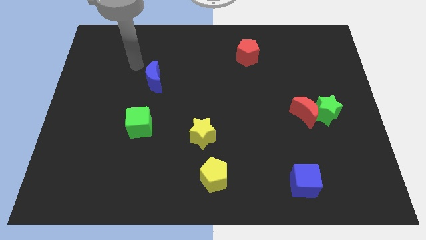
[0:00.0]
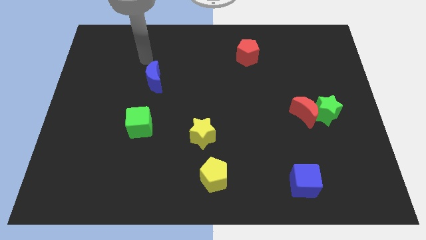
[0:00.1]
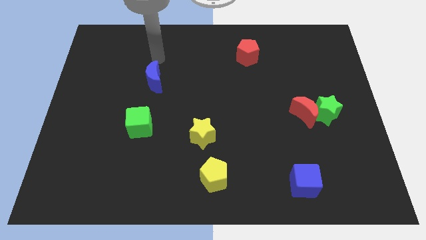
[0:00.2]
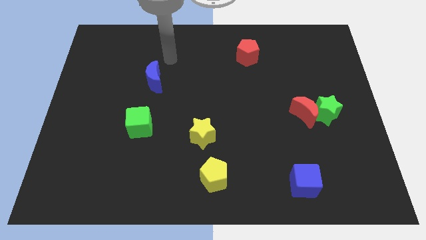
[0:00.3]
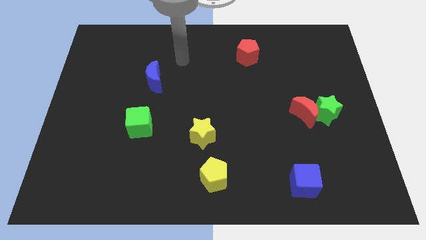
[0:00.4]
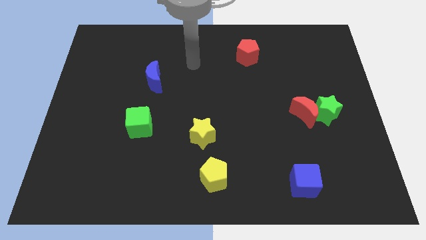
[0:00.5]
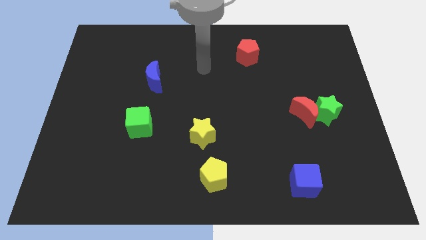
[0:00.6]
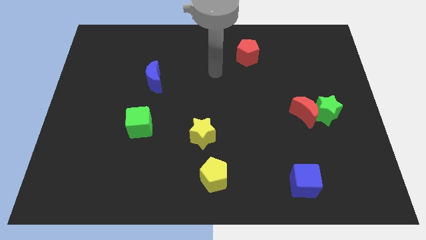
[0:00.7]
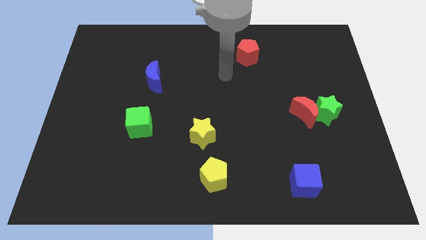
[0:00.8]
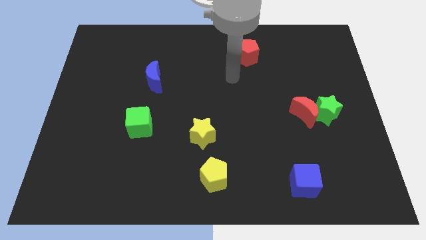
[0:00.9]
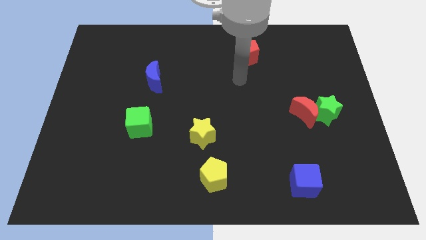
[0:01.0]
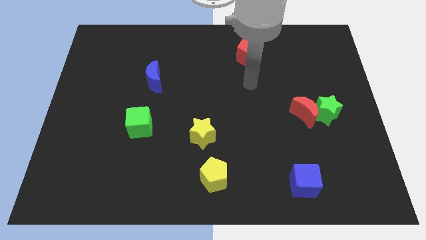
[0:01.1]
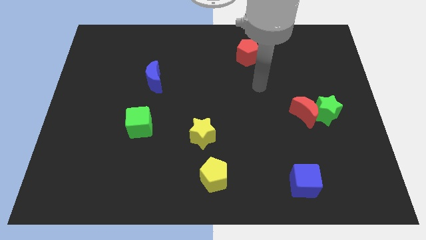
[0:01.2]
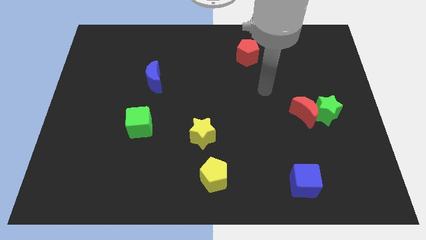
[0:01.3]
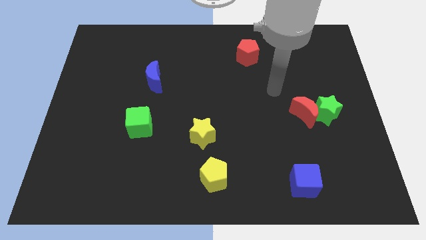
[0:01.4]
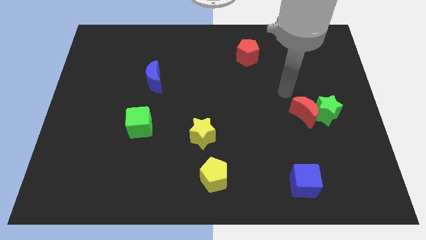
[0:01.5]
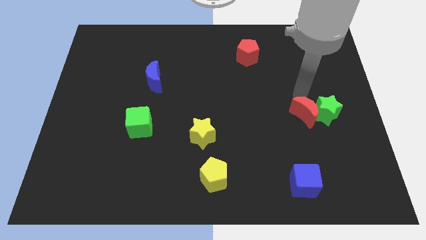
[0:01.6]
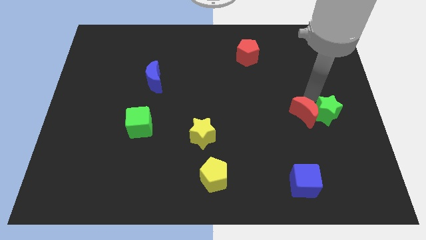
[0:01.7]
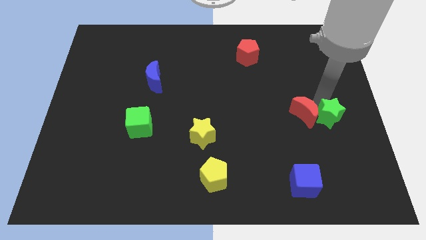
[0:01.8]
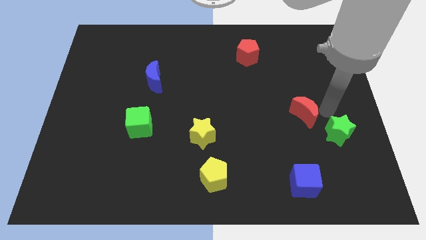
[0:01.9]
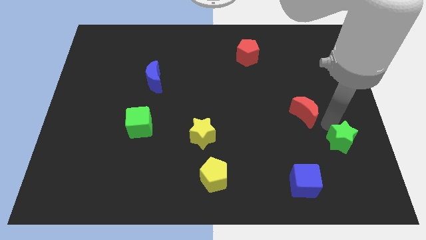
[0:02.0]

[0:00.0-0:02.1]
move the red moon away from the green star

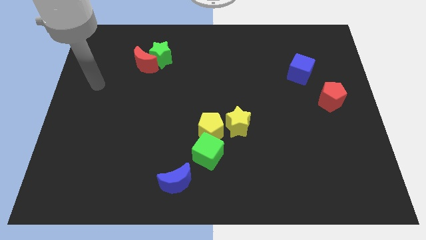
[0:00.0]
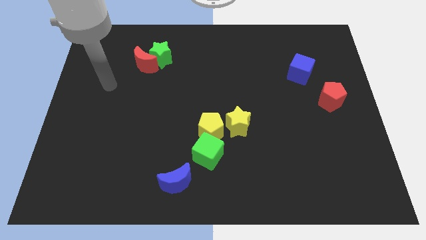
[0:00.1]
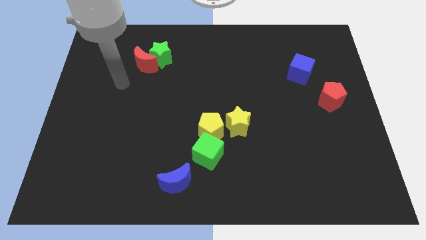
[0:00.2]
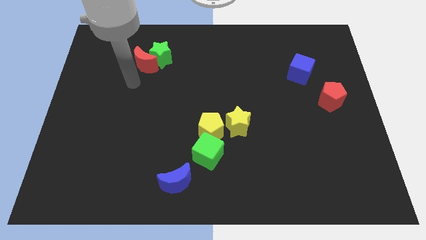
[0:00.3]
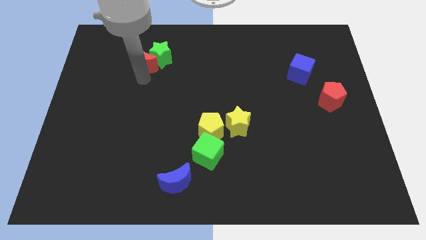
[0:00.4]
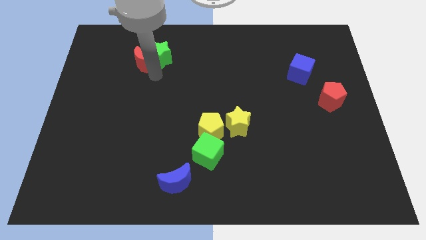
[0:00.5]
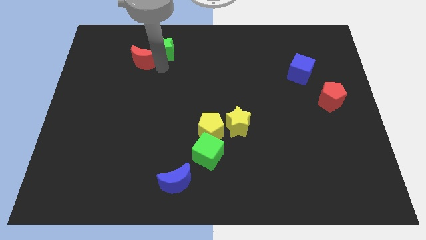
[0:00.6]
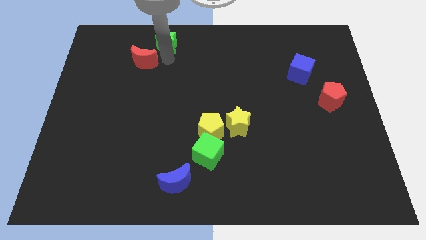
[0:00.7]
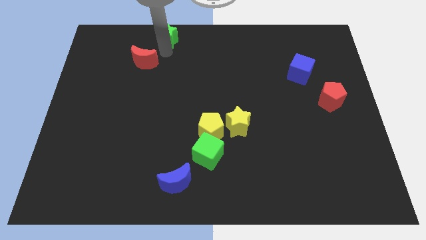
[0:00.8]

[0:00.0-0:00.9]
separate the red moon from the green star

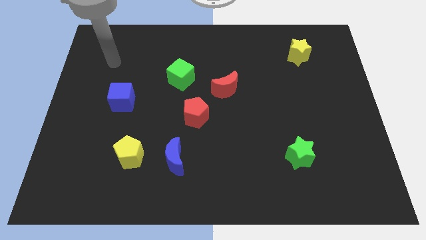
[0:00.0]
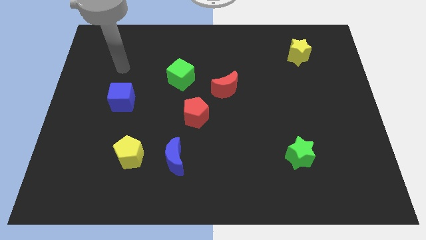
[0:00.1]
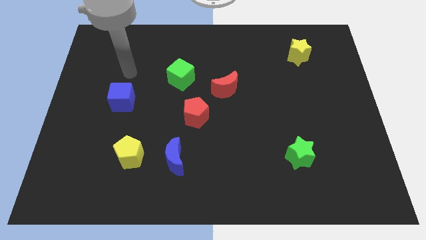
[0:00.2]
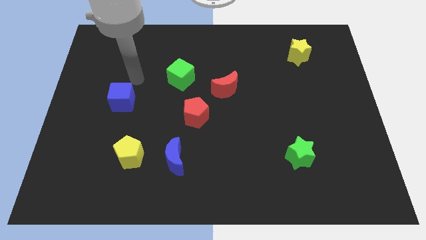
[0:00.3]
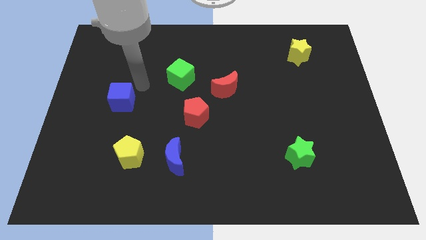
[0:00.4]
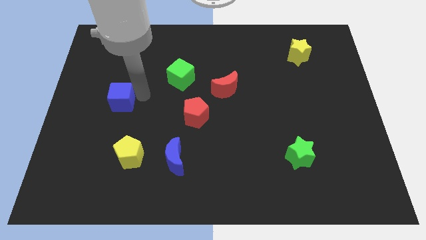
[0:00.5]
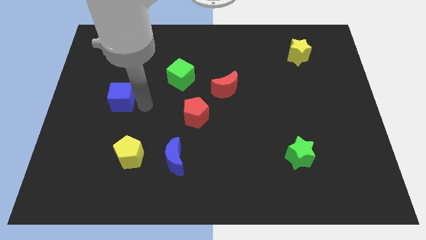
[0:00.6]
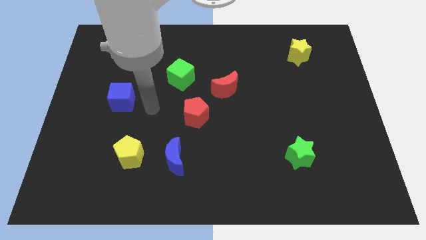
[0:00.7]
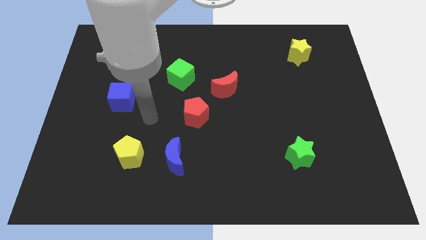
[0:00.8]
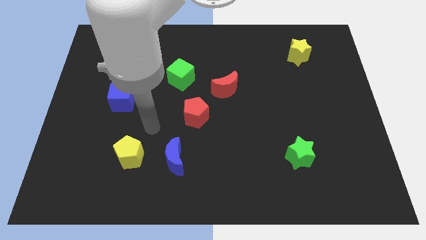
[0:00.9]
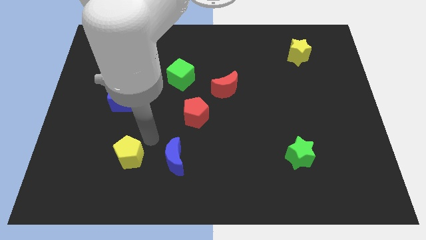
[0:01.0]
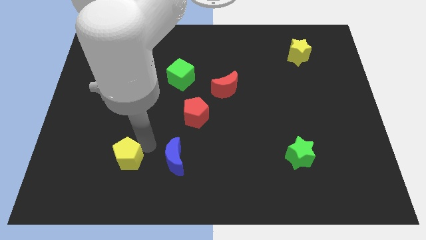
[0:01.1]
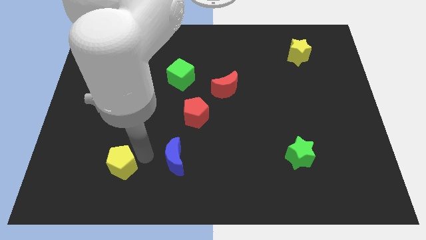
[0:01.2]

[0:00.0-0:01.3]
pull the blue moon apart from the yellow pentagon

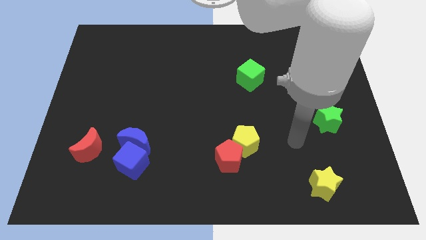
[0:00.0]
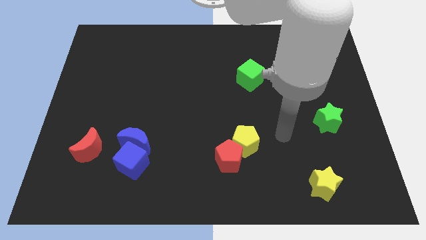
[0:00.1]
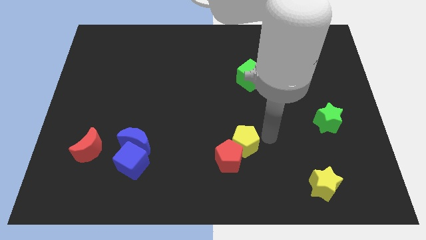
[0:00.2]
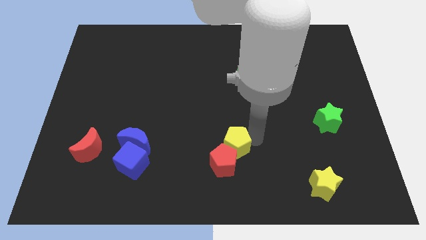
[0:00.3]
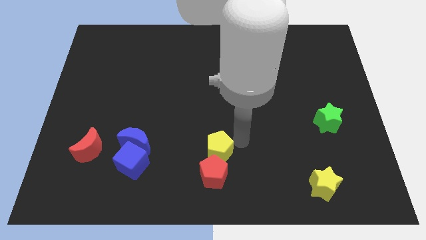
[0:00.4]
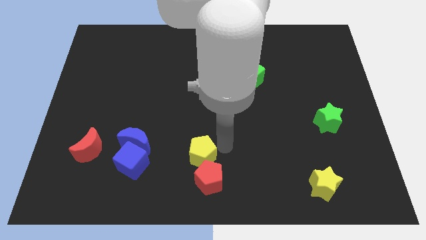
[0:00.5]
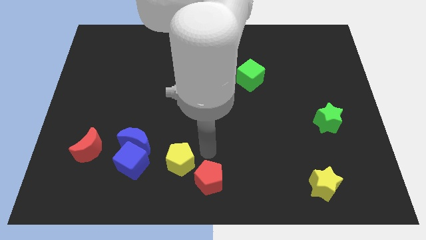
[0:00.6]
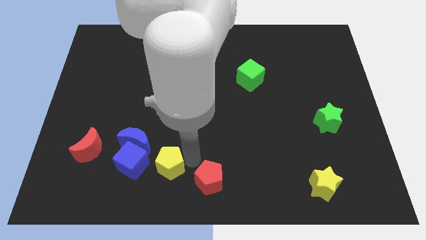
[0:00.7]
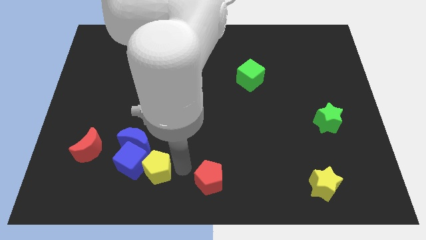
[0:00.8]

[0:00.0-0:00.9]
pull the red pentagon apart from the yellow pentagon

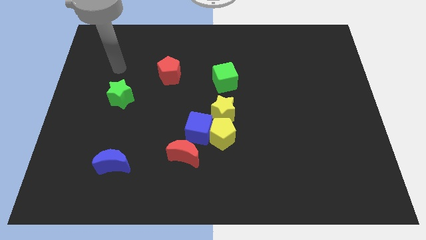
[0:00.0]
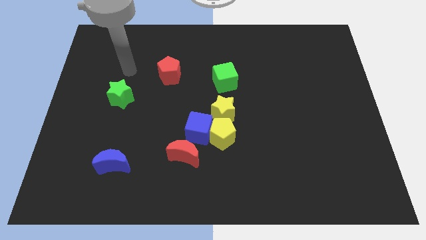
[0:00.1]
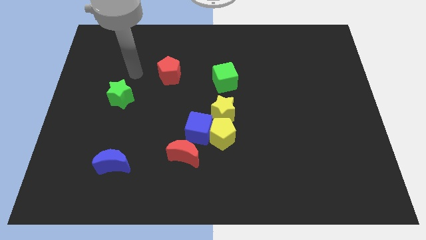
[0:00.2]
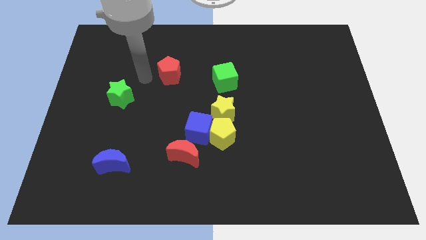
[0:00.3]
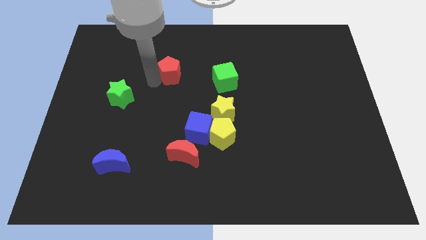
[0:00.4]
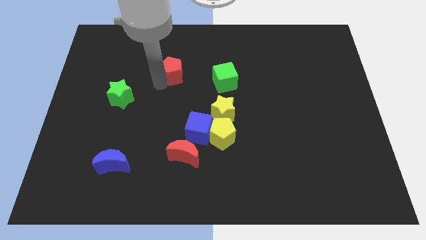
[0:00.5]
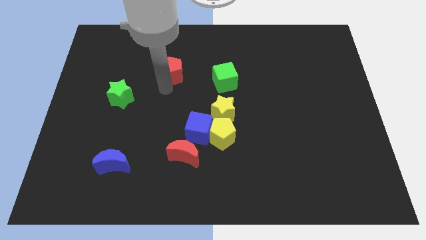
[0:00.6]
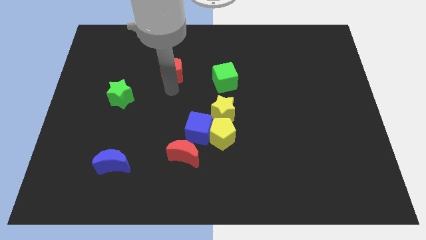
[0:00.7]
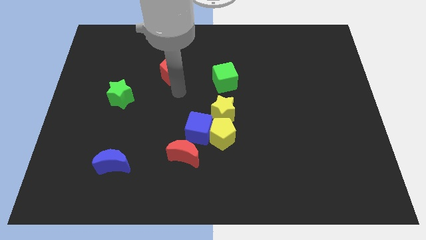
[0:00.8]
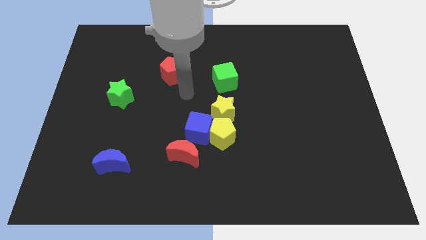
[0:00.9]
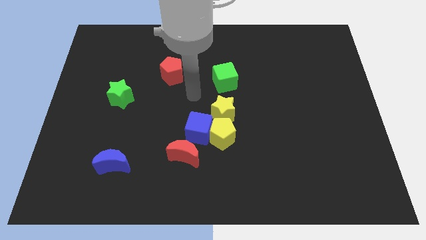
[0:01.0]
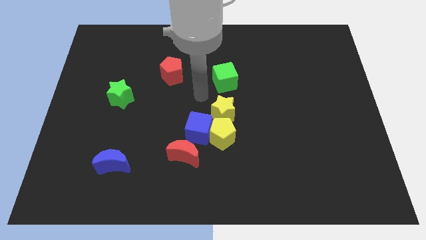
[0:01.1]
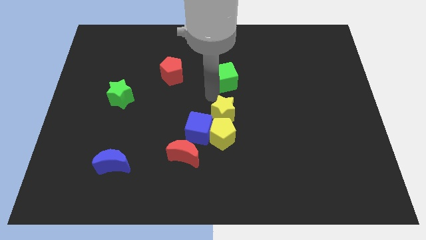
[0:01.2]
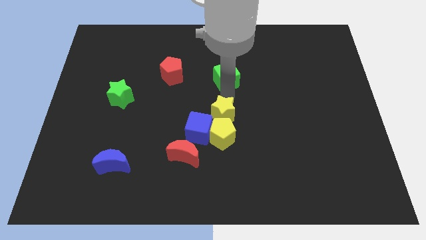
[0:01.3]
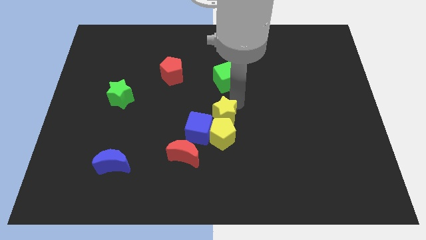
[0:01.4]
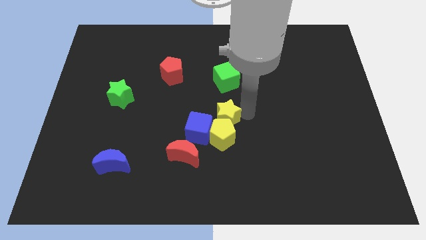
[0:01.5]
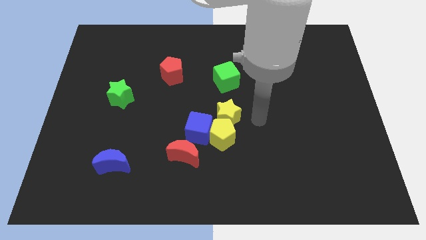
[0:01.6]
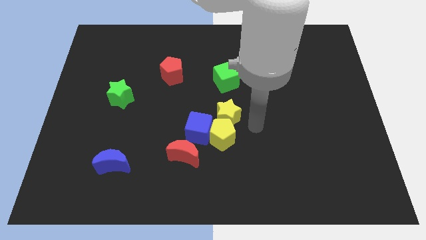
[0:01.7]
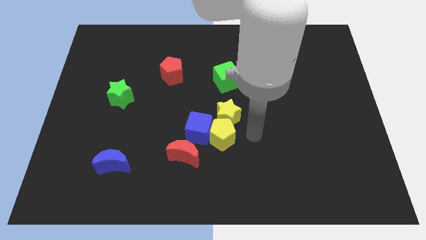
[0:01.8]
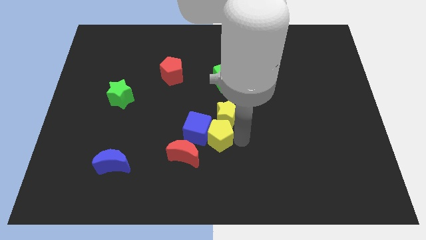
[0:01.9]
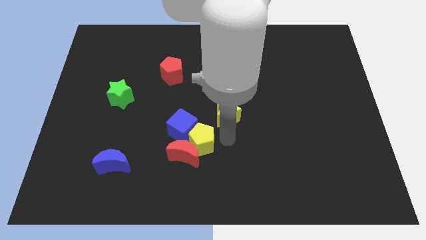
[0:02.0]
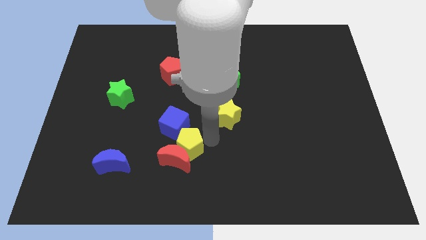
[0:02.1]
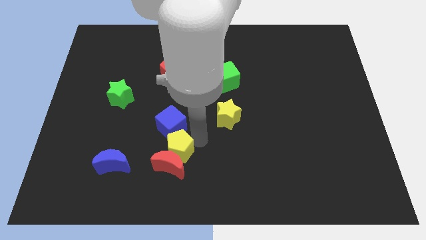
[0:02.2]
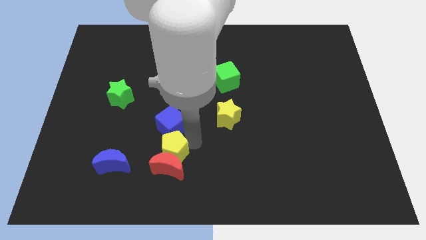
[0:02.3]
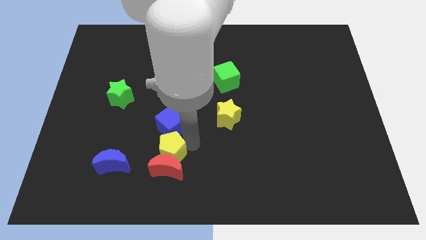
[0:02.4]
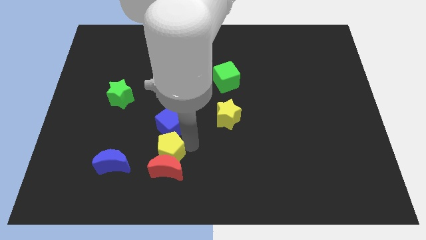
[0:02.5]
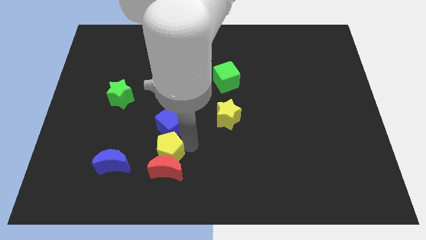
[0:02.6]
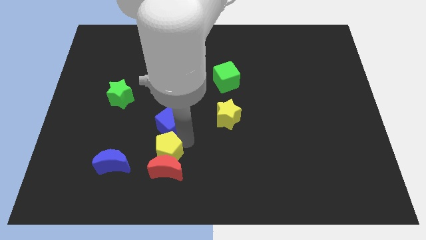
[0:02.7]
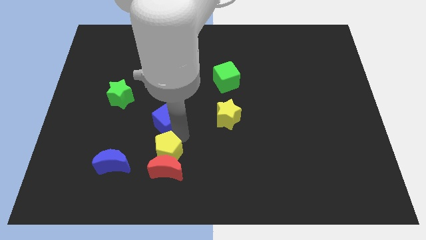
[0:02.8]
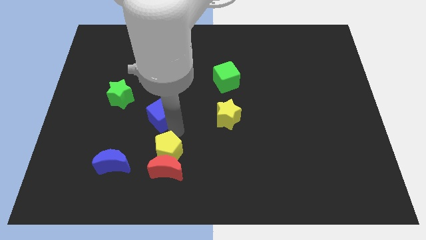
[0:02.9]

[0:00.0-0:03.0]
separate the blue cube from the yellow pentagon, red moon, and yellow star

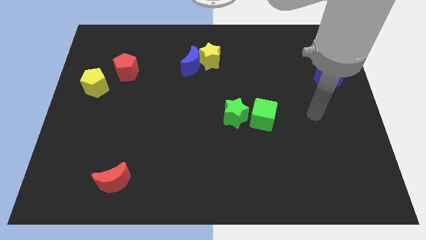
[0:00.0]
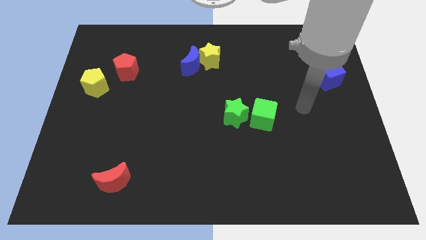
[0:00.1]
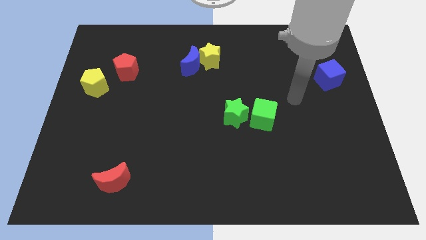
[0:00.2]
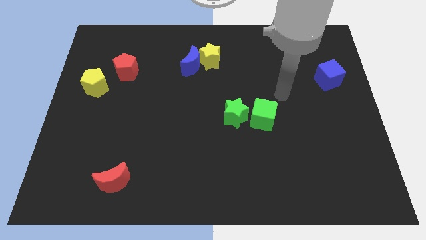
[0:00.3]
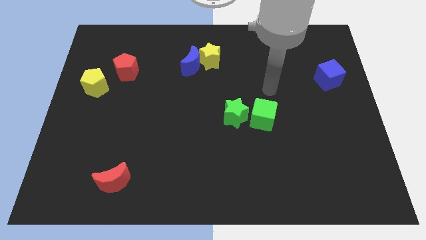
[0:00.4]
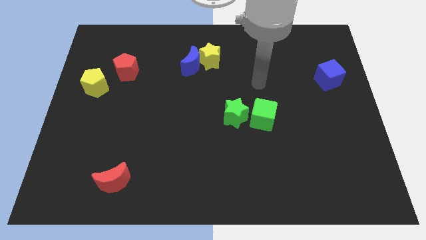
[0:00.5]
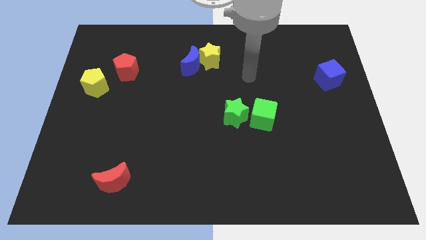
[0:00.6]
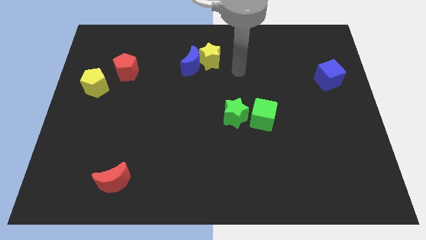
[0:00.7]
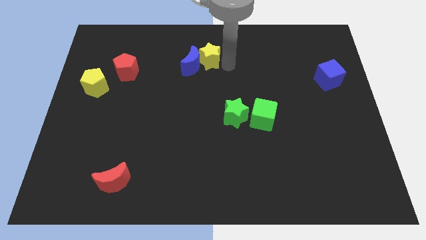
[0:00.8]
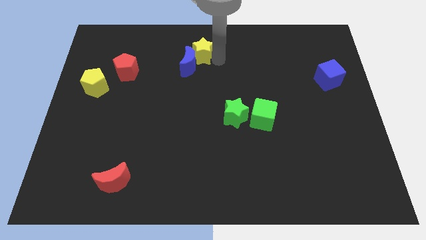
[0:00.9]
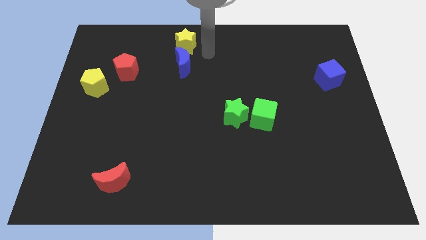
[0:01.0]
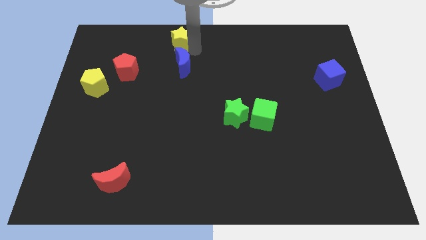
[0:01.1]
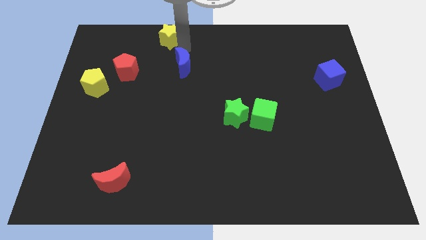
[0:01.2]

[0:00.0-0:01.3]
pull the blue moon apart from the yellow star
